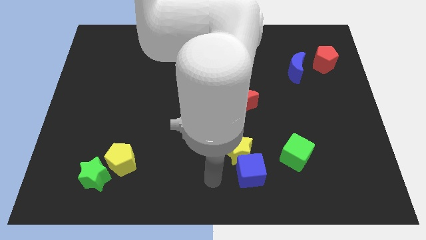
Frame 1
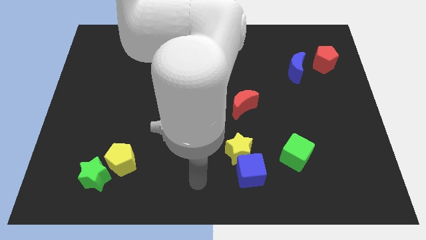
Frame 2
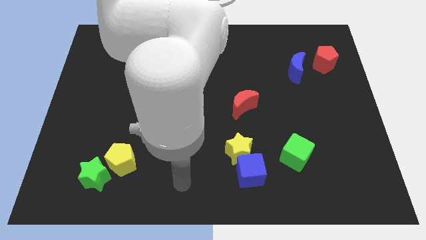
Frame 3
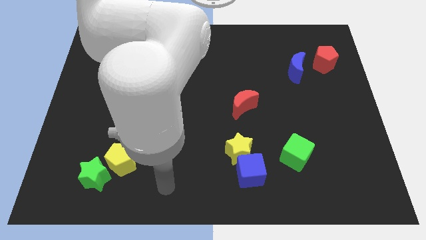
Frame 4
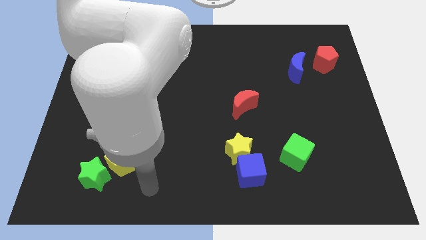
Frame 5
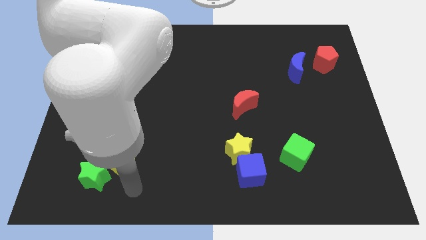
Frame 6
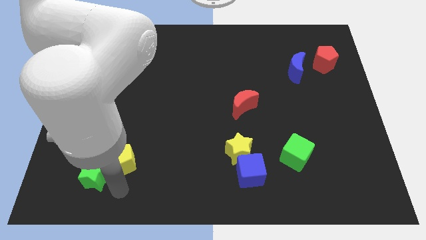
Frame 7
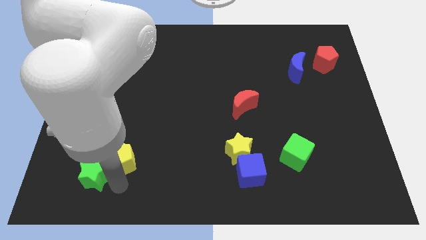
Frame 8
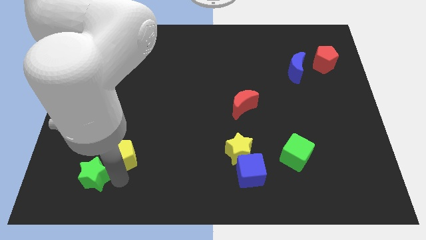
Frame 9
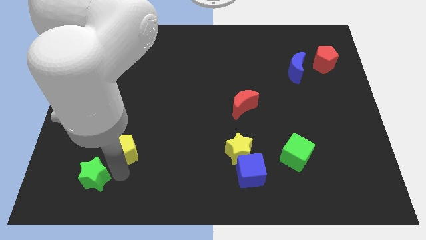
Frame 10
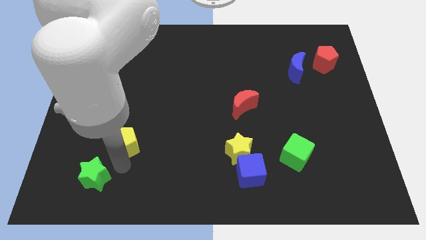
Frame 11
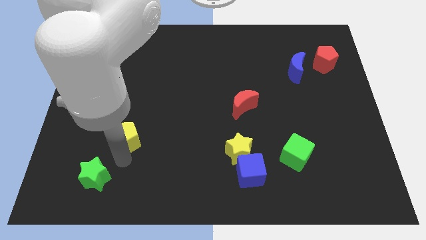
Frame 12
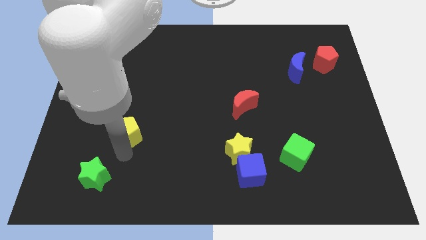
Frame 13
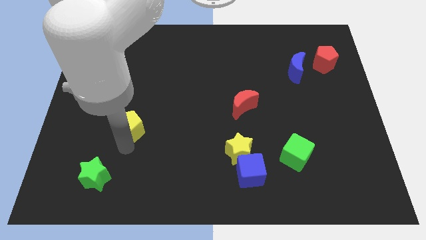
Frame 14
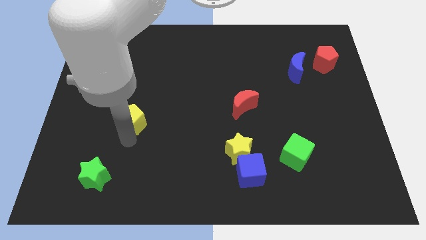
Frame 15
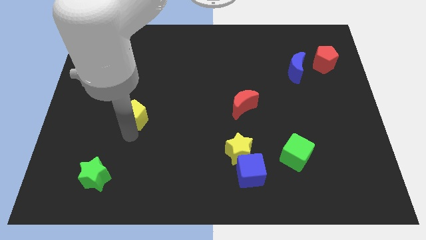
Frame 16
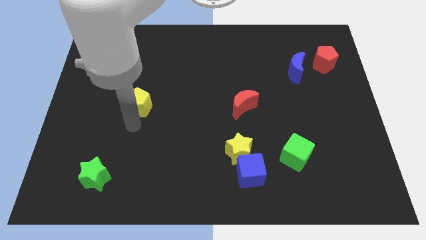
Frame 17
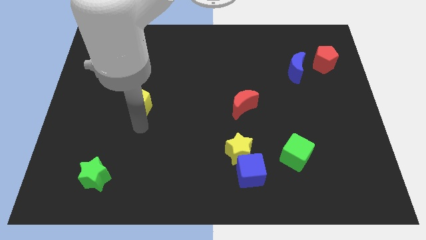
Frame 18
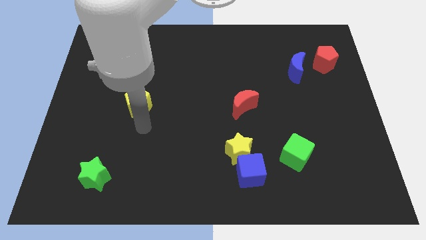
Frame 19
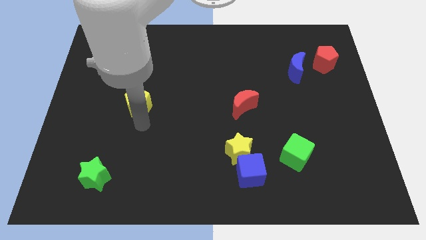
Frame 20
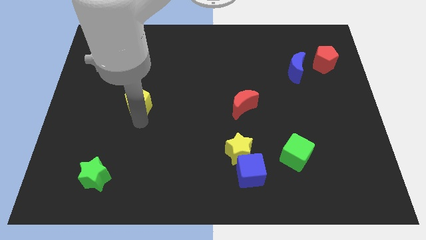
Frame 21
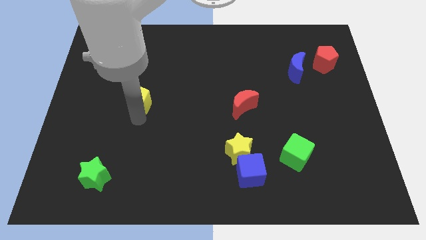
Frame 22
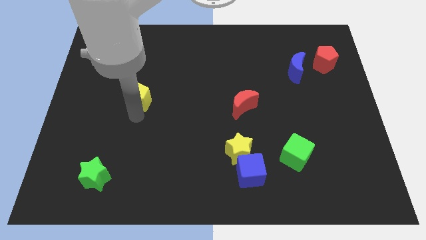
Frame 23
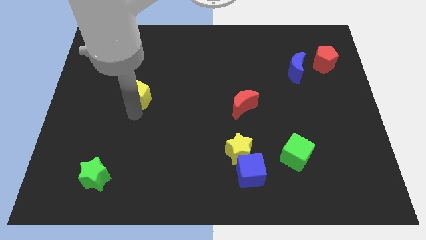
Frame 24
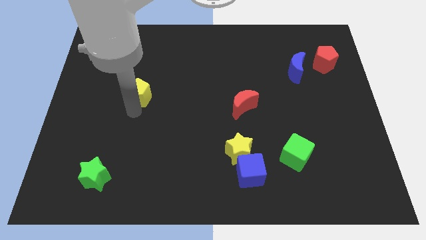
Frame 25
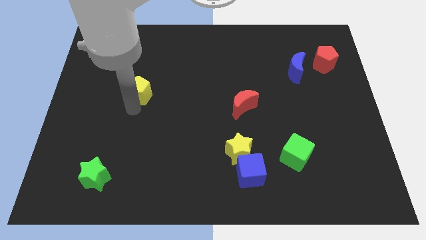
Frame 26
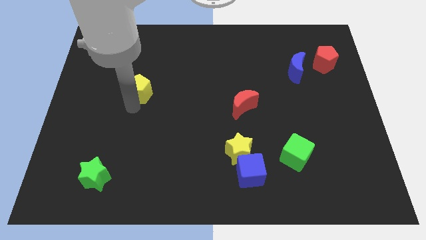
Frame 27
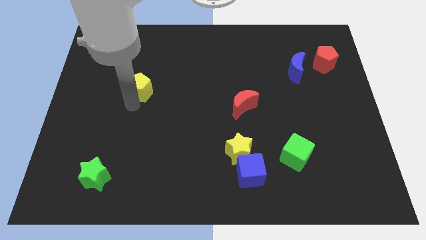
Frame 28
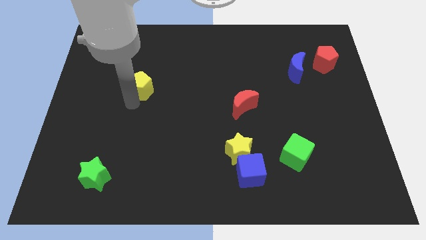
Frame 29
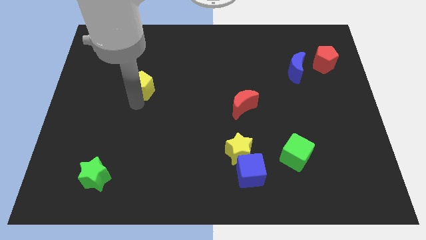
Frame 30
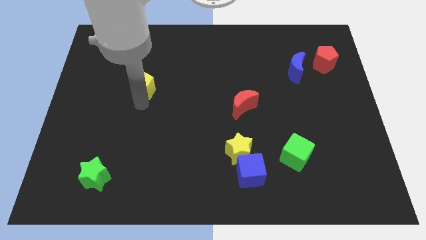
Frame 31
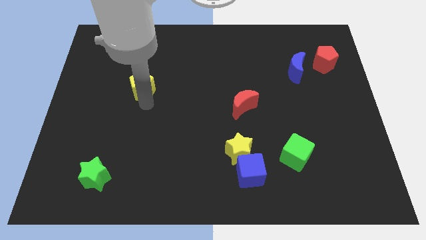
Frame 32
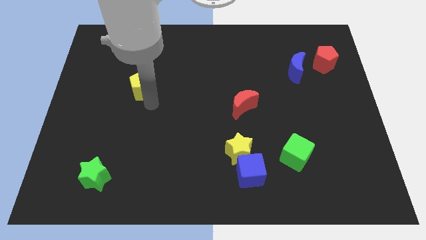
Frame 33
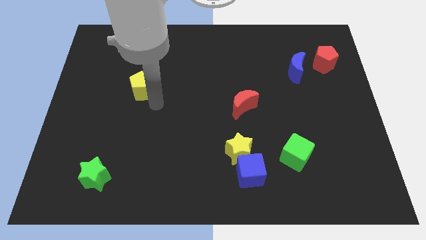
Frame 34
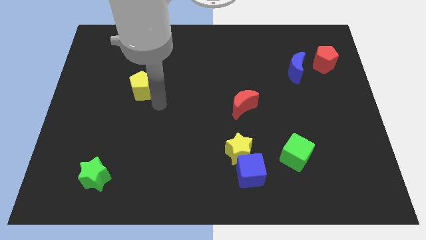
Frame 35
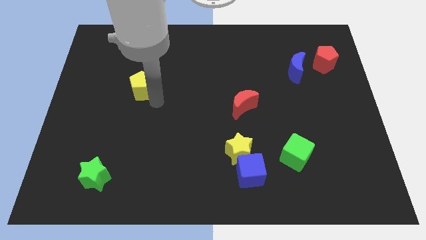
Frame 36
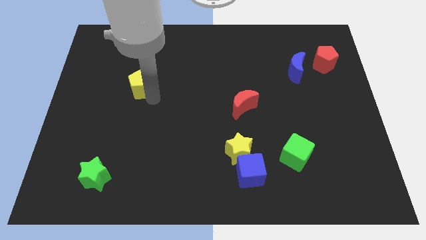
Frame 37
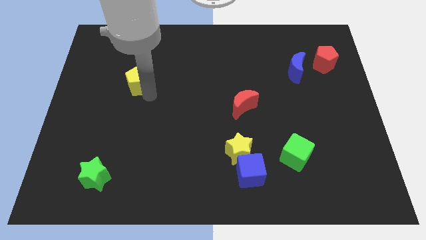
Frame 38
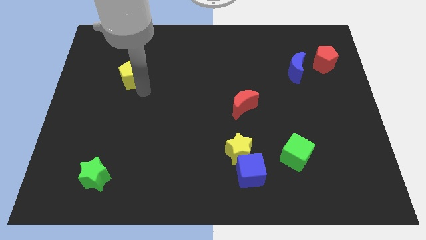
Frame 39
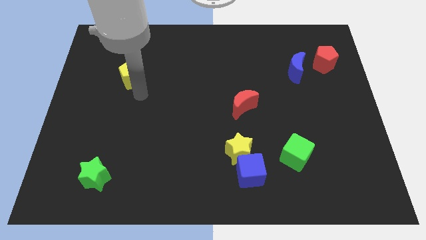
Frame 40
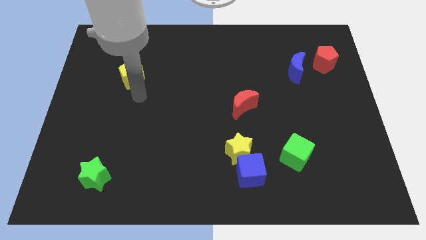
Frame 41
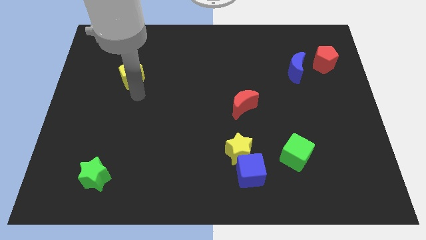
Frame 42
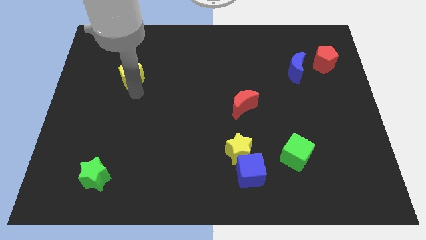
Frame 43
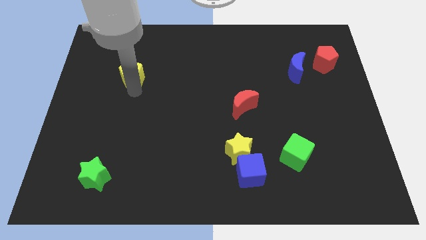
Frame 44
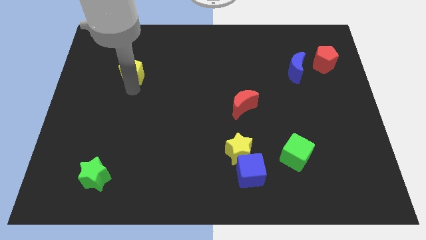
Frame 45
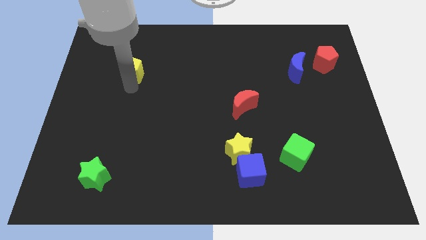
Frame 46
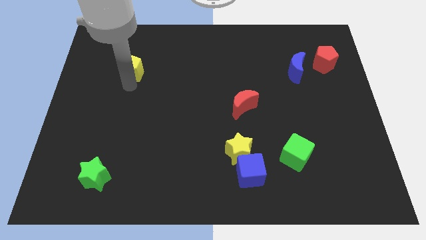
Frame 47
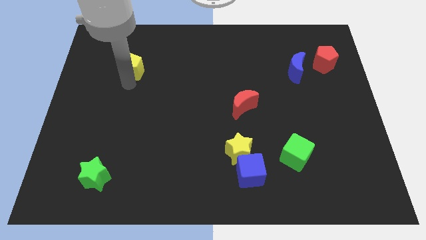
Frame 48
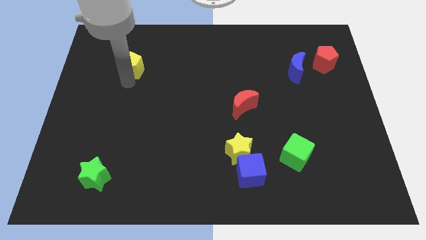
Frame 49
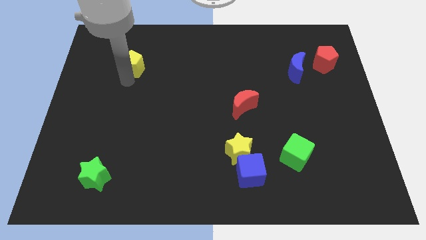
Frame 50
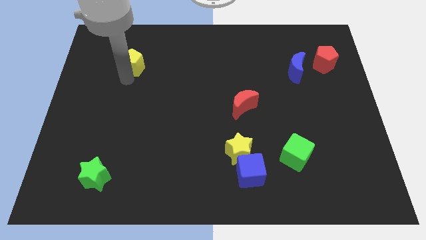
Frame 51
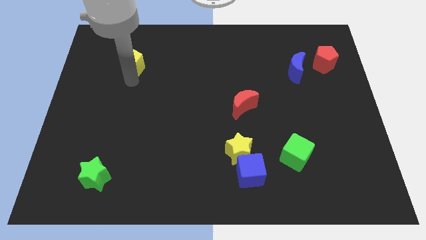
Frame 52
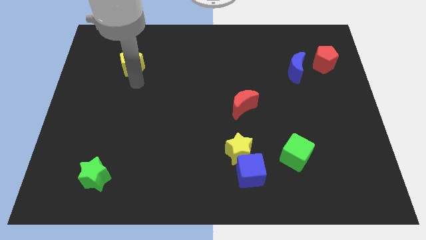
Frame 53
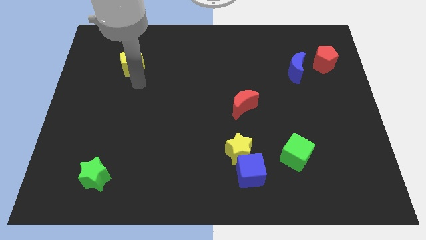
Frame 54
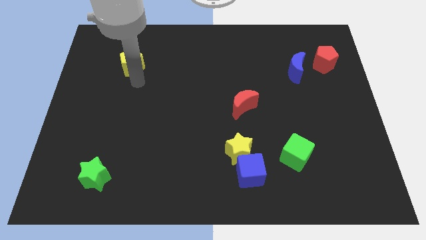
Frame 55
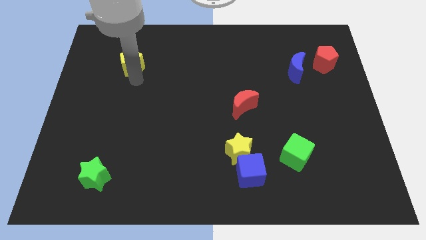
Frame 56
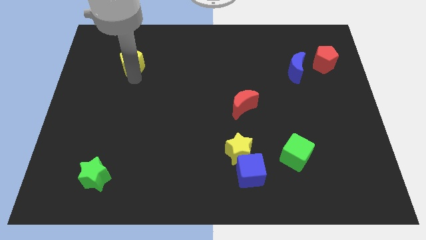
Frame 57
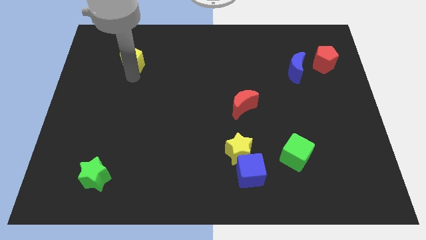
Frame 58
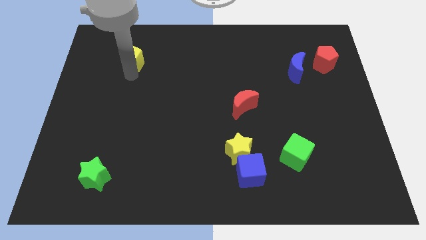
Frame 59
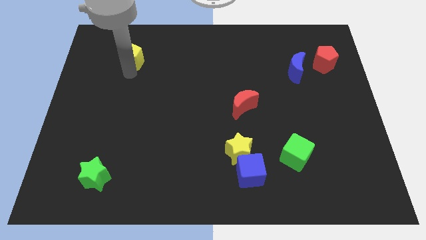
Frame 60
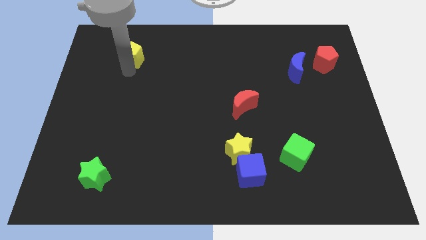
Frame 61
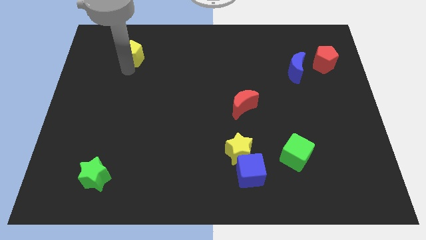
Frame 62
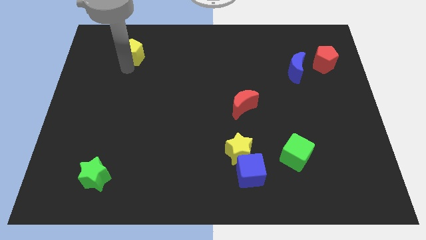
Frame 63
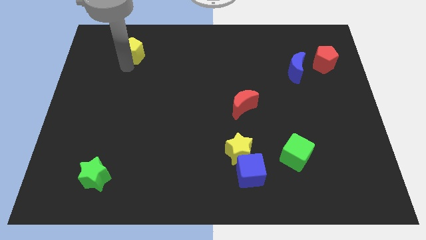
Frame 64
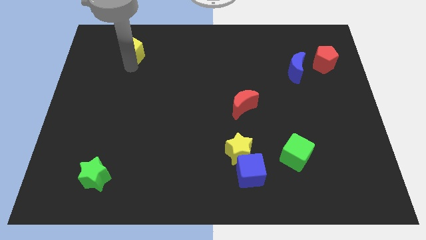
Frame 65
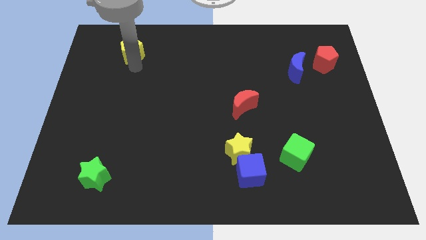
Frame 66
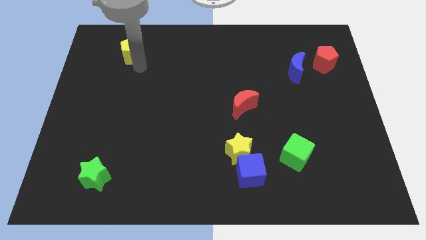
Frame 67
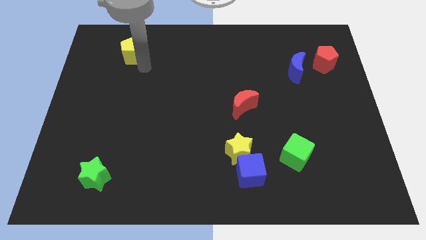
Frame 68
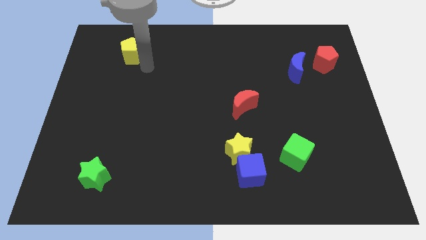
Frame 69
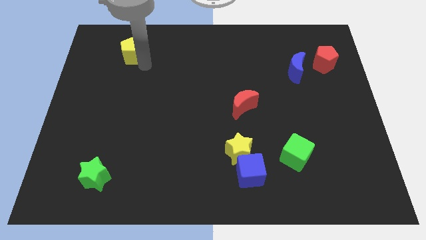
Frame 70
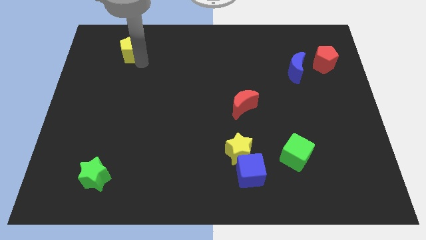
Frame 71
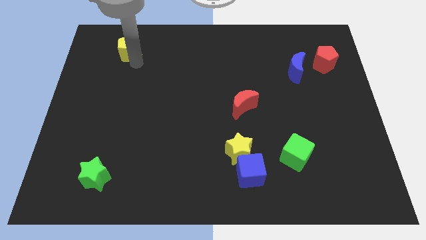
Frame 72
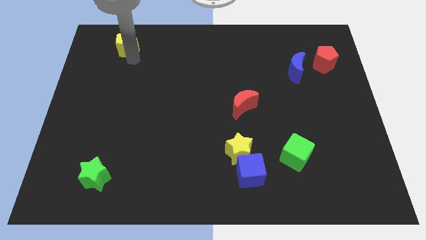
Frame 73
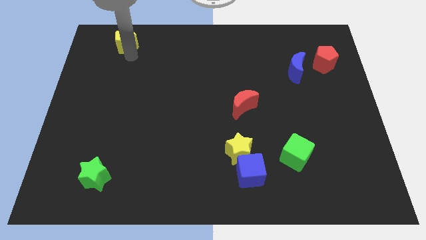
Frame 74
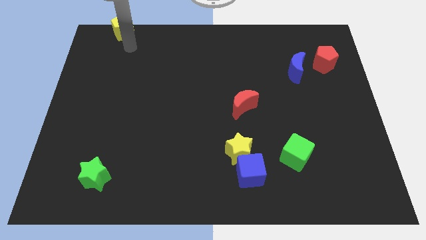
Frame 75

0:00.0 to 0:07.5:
push the yellow pentagon to the upper left corner
